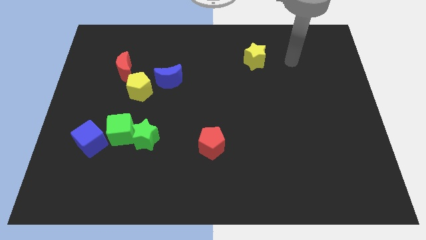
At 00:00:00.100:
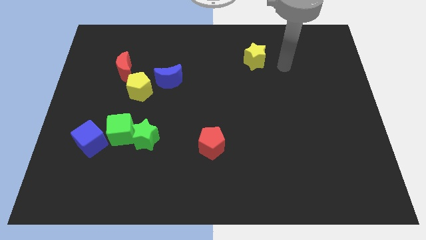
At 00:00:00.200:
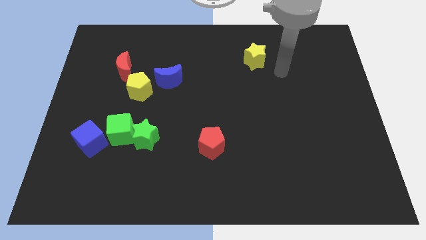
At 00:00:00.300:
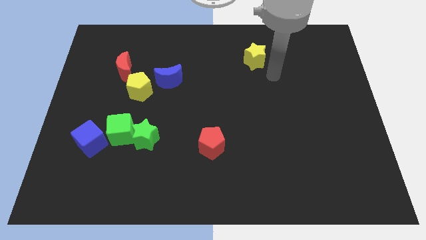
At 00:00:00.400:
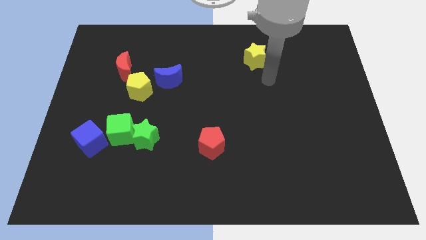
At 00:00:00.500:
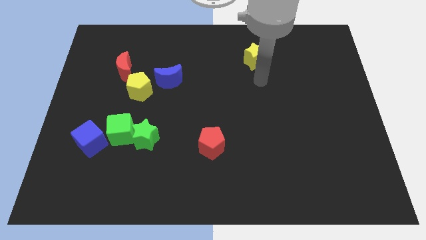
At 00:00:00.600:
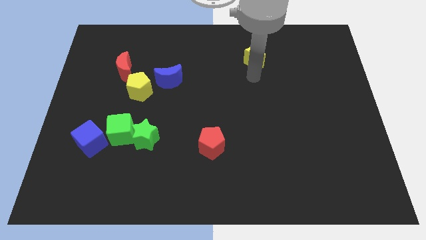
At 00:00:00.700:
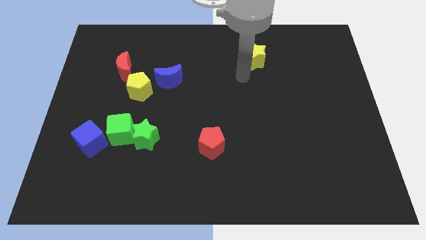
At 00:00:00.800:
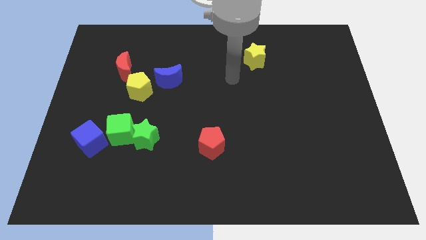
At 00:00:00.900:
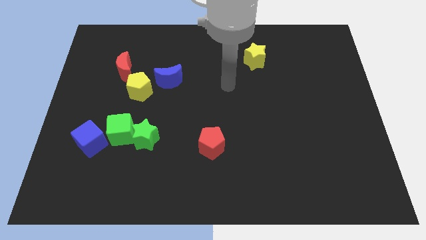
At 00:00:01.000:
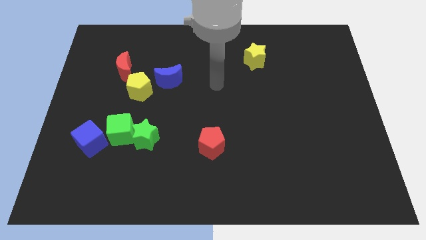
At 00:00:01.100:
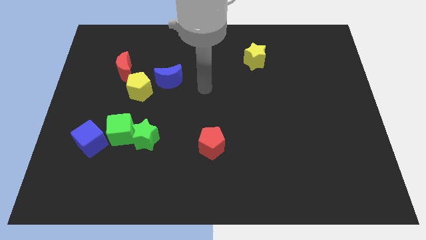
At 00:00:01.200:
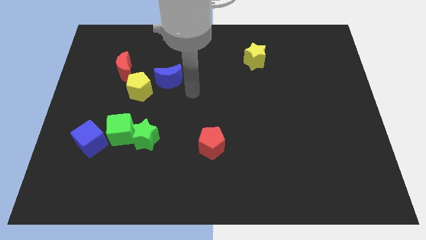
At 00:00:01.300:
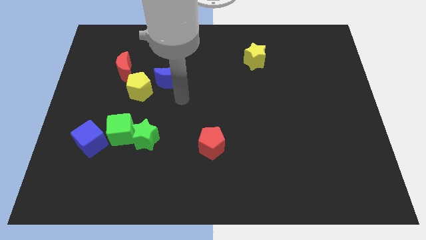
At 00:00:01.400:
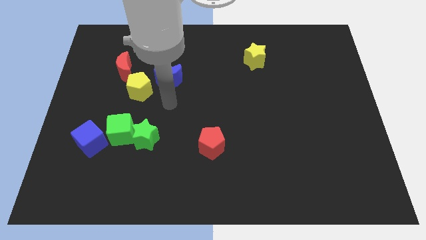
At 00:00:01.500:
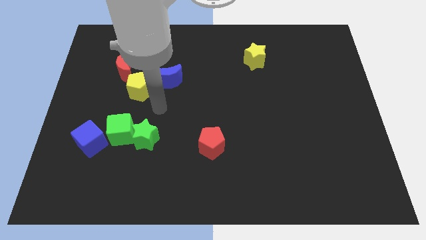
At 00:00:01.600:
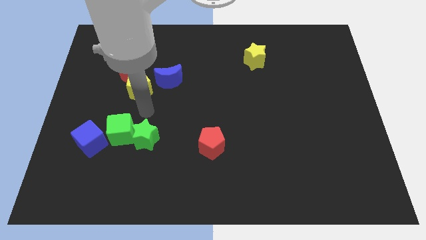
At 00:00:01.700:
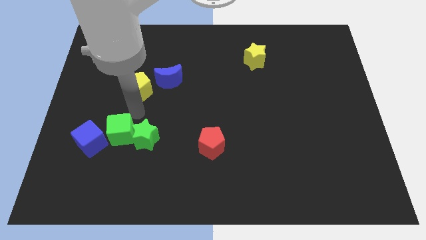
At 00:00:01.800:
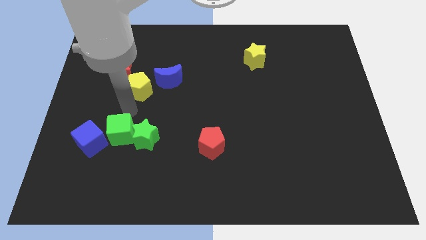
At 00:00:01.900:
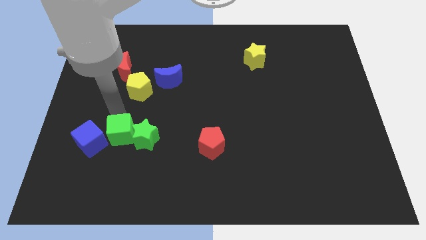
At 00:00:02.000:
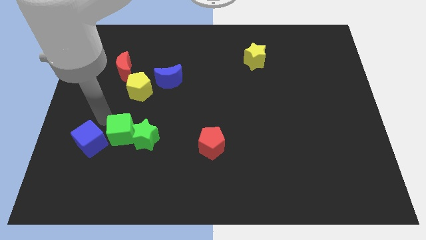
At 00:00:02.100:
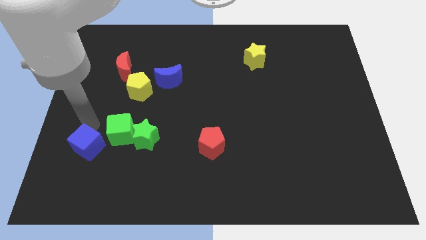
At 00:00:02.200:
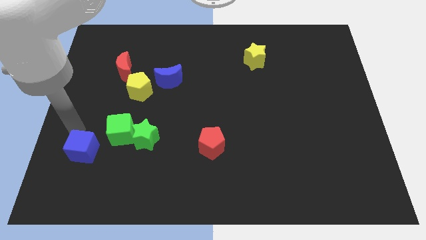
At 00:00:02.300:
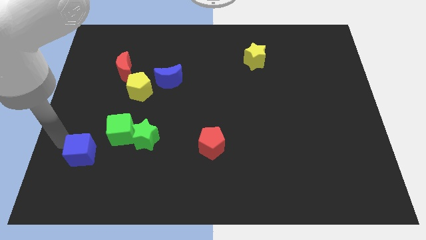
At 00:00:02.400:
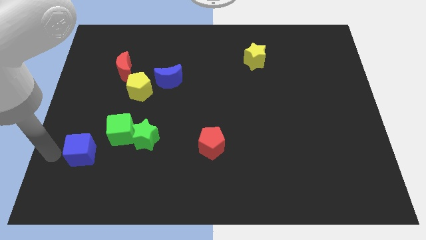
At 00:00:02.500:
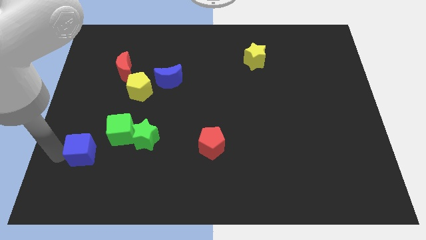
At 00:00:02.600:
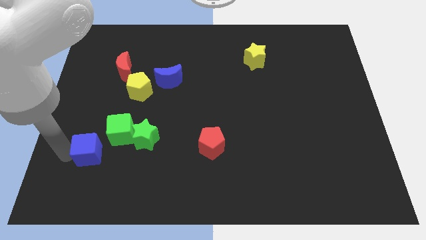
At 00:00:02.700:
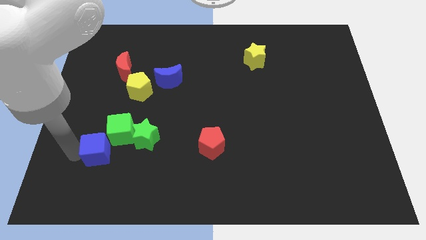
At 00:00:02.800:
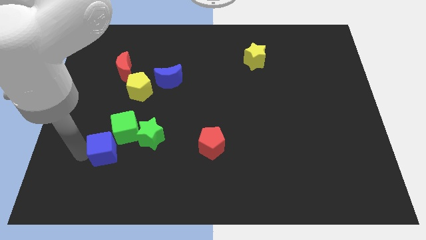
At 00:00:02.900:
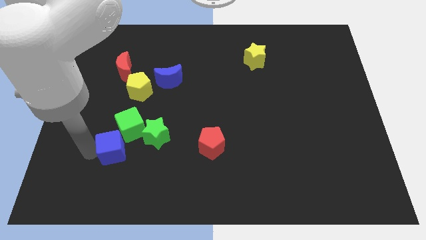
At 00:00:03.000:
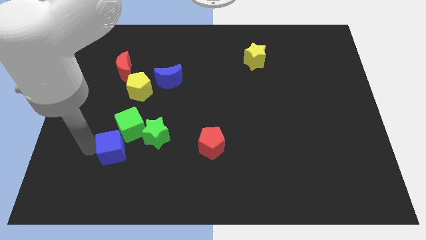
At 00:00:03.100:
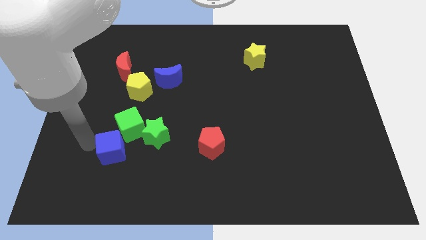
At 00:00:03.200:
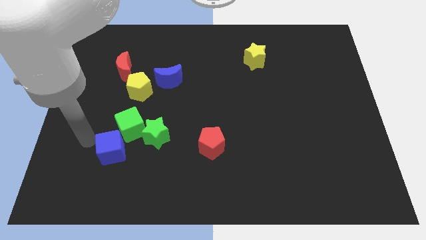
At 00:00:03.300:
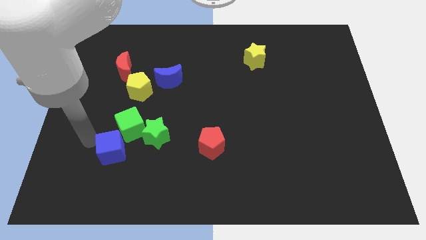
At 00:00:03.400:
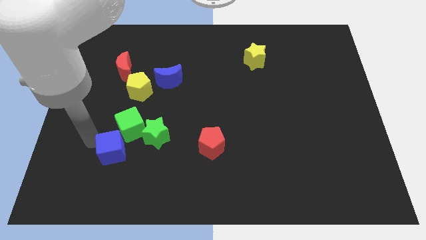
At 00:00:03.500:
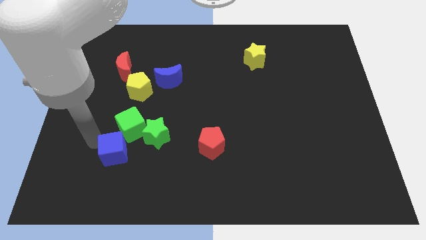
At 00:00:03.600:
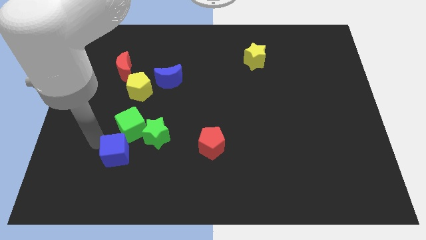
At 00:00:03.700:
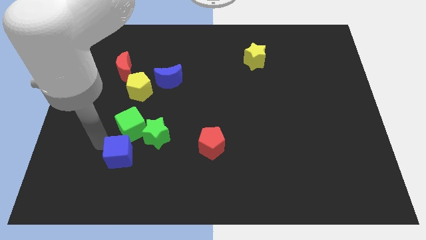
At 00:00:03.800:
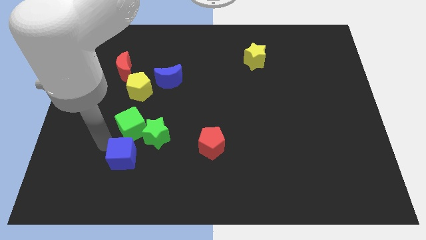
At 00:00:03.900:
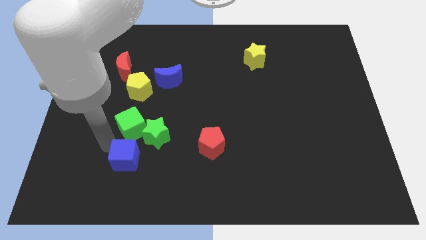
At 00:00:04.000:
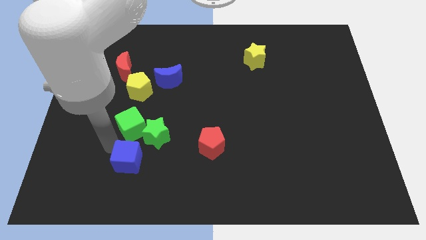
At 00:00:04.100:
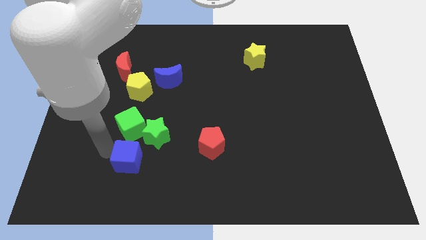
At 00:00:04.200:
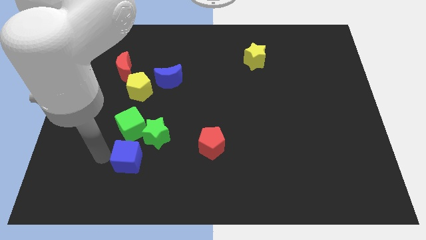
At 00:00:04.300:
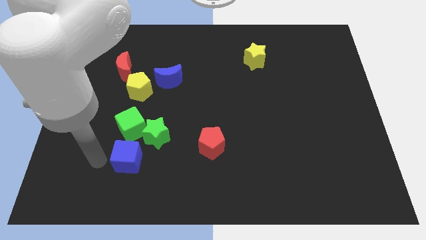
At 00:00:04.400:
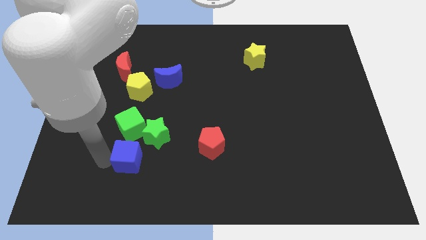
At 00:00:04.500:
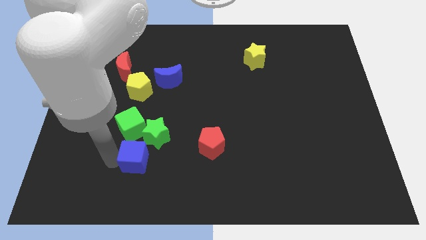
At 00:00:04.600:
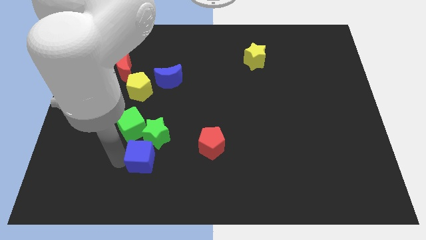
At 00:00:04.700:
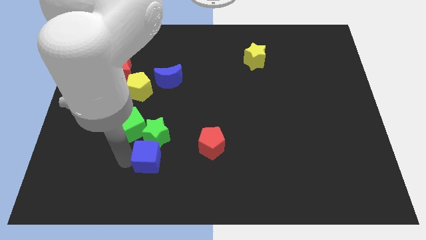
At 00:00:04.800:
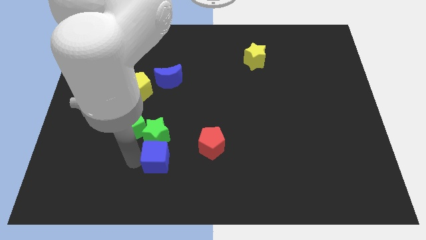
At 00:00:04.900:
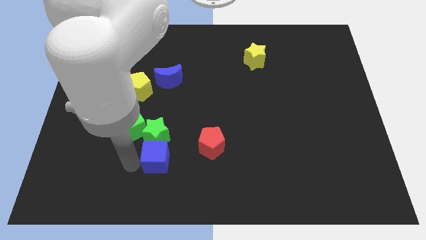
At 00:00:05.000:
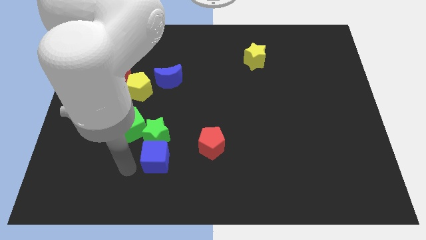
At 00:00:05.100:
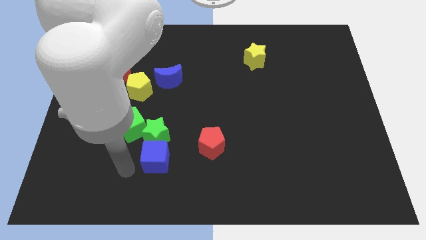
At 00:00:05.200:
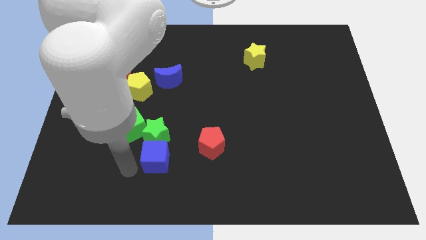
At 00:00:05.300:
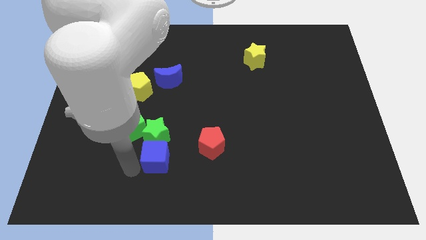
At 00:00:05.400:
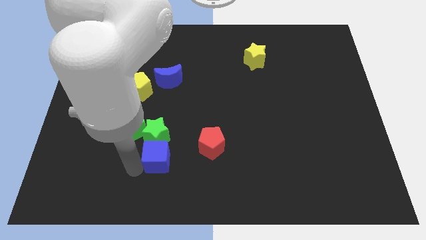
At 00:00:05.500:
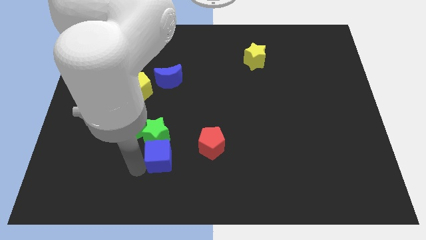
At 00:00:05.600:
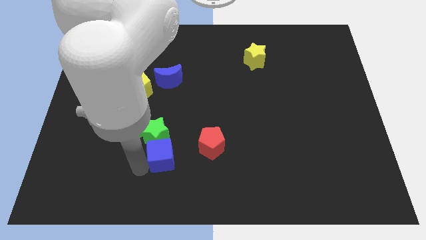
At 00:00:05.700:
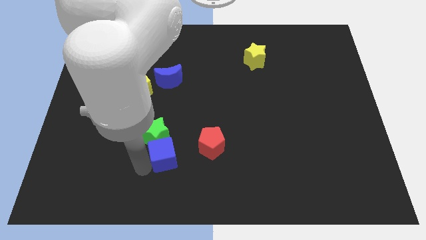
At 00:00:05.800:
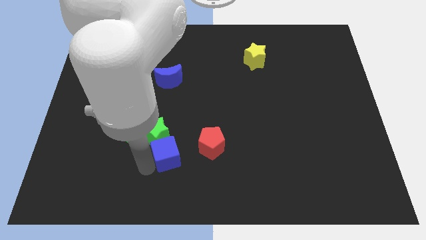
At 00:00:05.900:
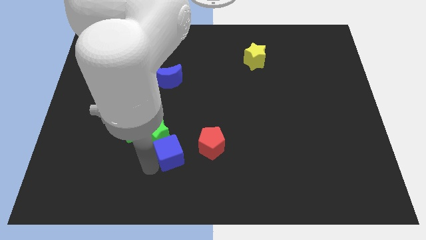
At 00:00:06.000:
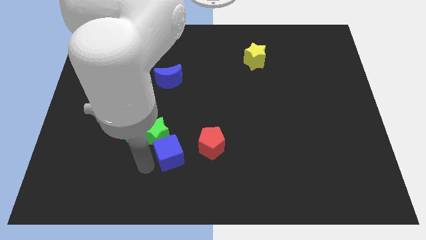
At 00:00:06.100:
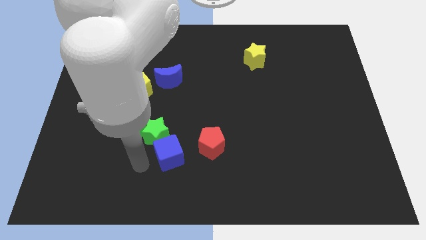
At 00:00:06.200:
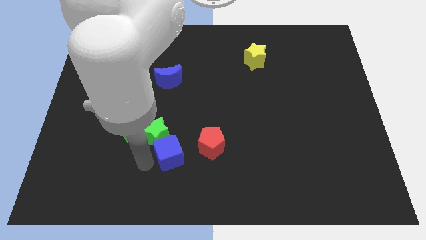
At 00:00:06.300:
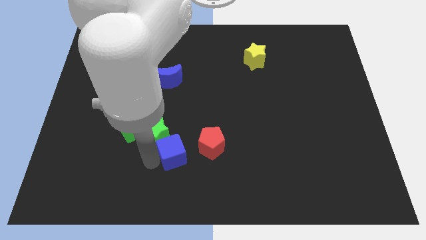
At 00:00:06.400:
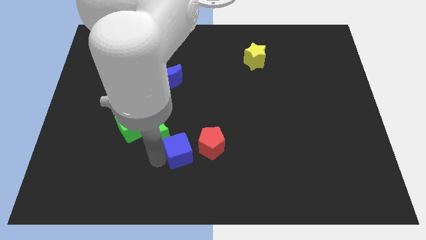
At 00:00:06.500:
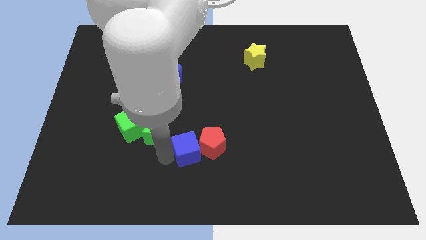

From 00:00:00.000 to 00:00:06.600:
slide the blue cube to the red pentagon

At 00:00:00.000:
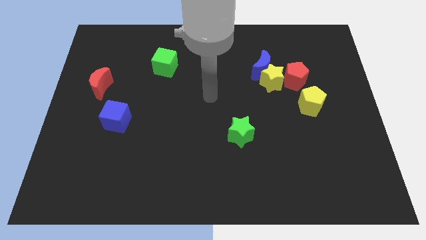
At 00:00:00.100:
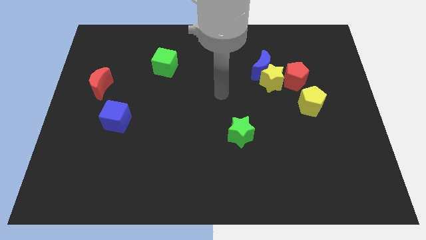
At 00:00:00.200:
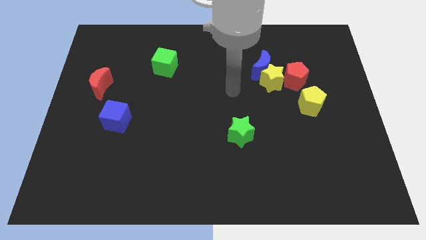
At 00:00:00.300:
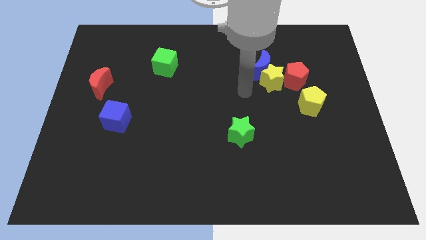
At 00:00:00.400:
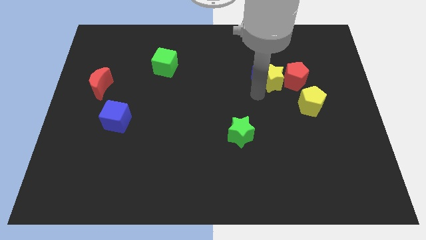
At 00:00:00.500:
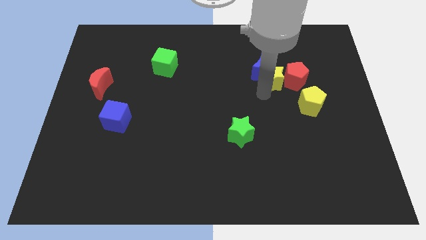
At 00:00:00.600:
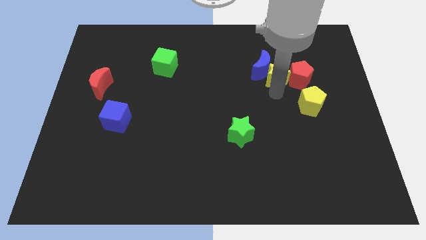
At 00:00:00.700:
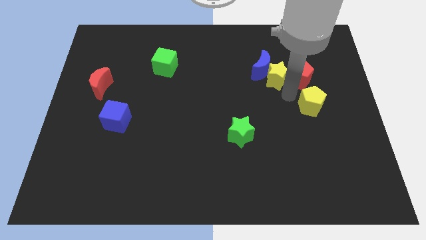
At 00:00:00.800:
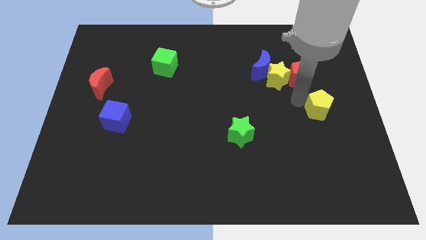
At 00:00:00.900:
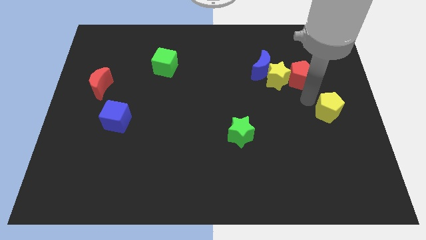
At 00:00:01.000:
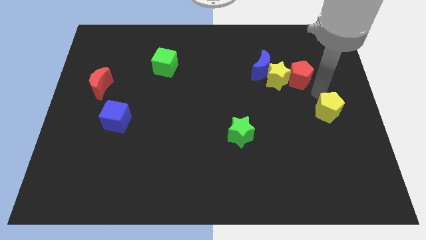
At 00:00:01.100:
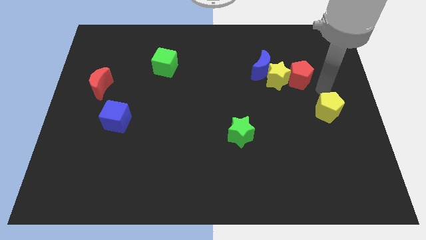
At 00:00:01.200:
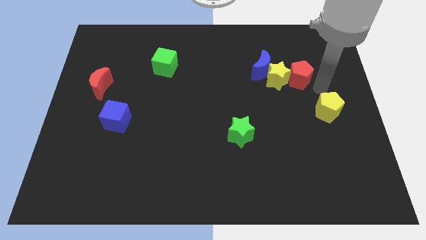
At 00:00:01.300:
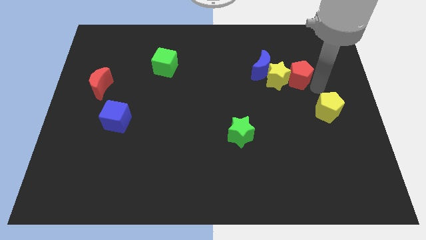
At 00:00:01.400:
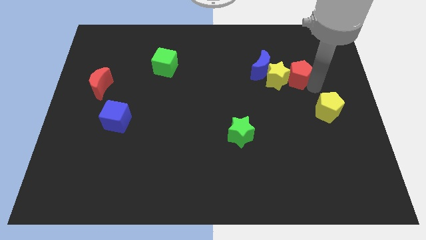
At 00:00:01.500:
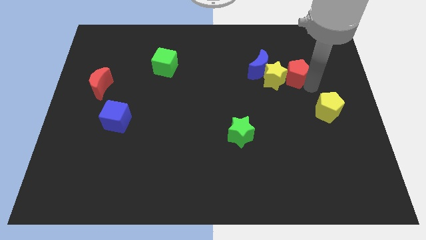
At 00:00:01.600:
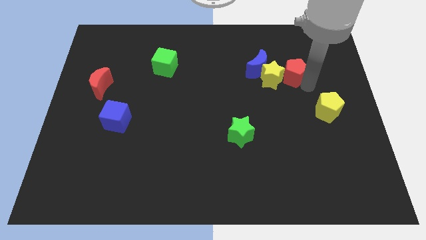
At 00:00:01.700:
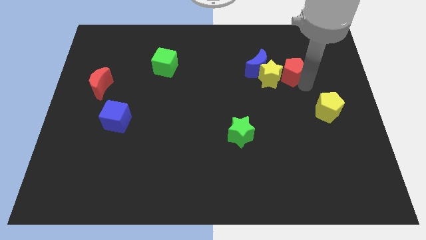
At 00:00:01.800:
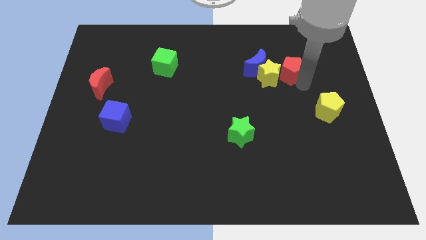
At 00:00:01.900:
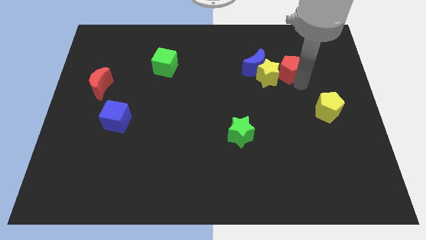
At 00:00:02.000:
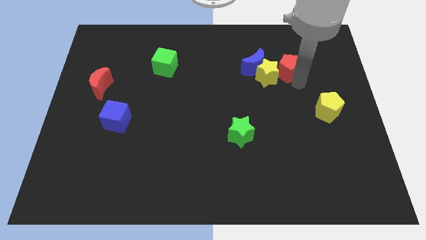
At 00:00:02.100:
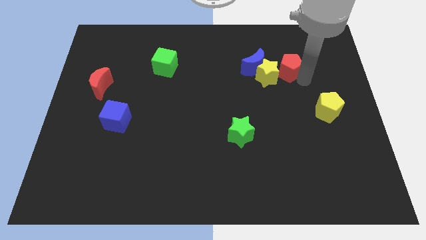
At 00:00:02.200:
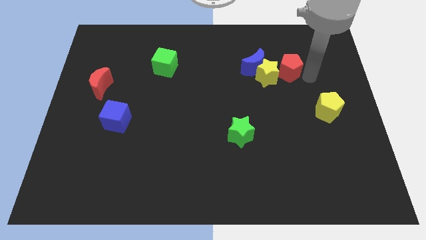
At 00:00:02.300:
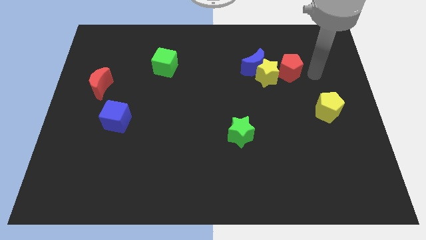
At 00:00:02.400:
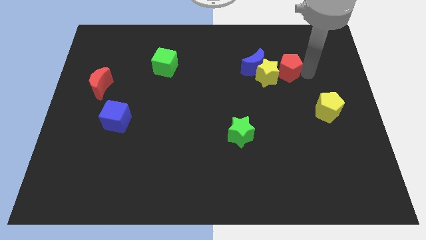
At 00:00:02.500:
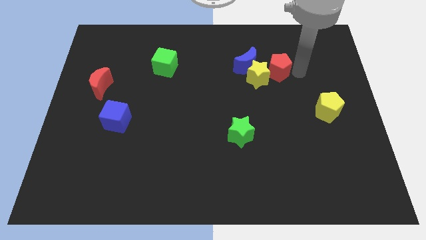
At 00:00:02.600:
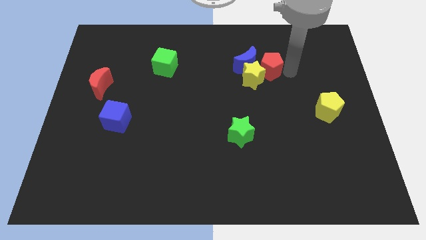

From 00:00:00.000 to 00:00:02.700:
move the red pentagon towards the blue moon
